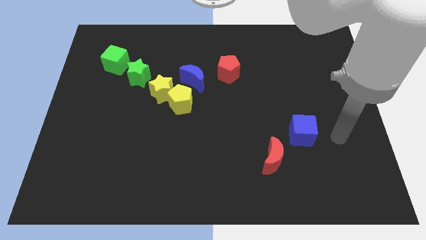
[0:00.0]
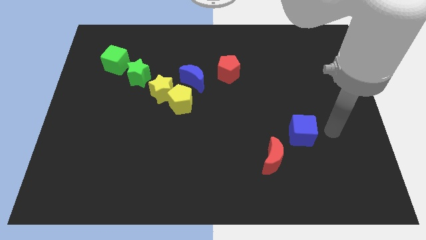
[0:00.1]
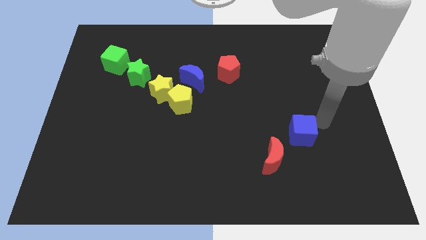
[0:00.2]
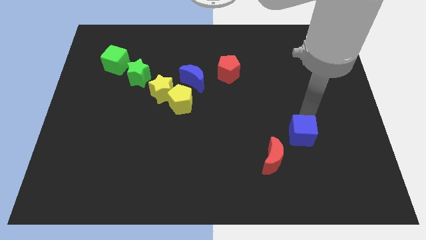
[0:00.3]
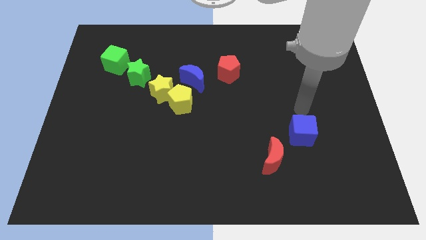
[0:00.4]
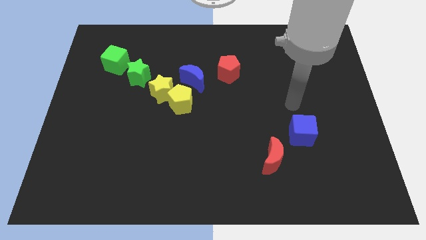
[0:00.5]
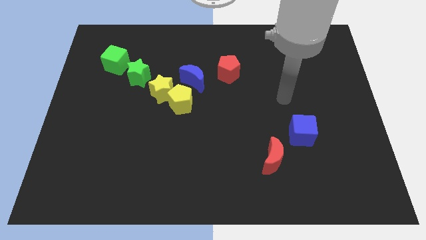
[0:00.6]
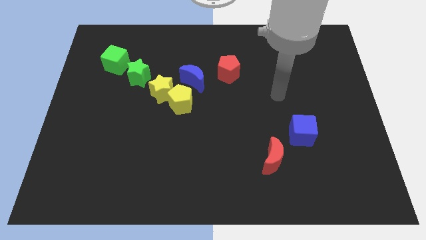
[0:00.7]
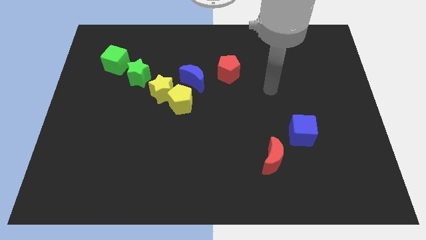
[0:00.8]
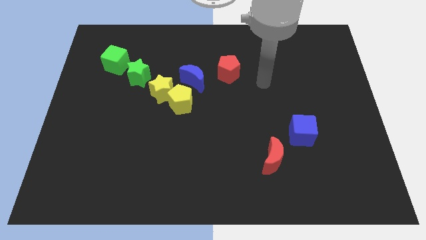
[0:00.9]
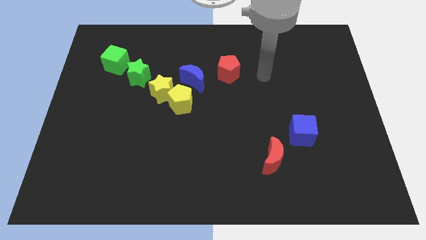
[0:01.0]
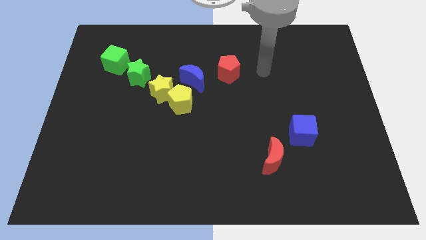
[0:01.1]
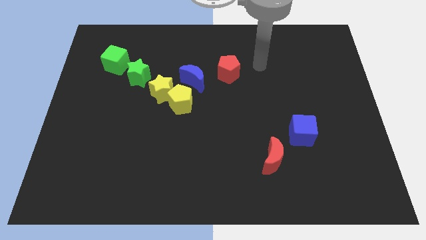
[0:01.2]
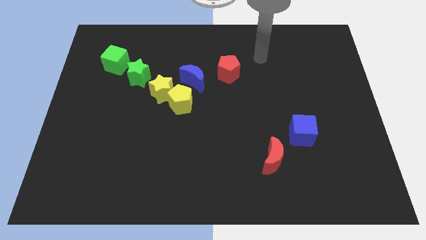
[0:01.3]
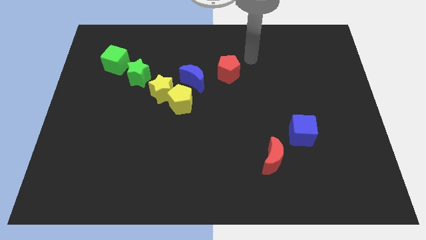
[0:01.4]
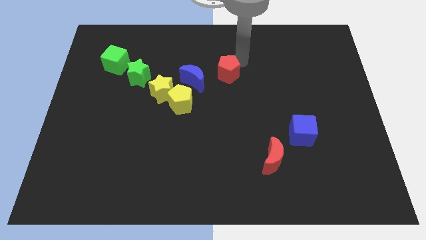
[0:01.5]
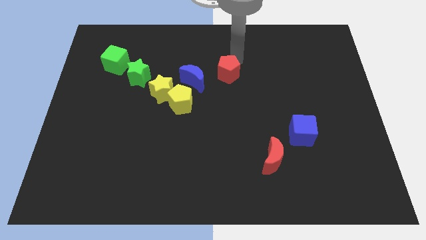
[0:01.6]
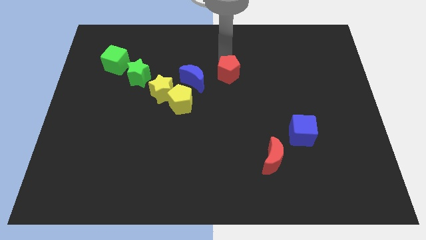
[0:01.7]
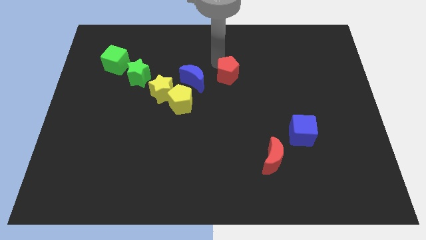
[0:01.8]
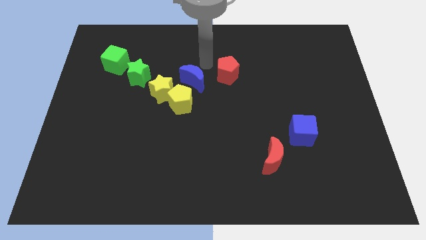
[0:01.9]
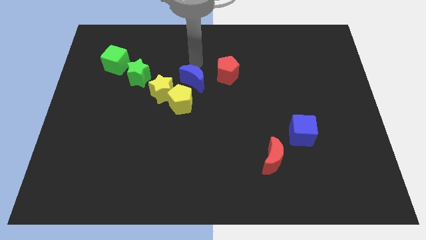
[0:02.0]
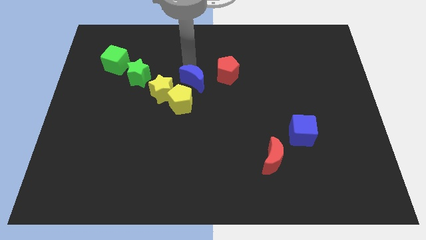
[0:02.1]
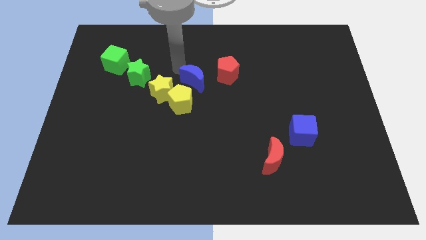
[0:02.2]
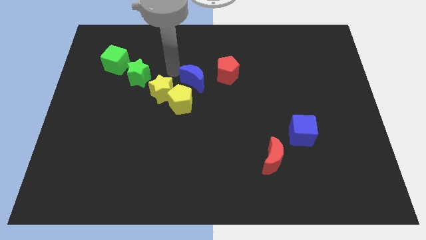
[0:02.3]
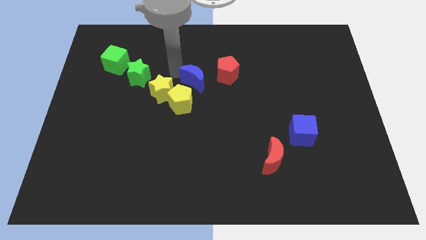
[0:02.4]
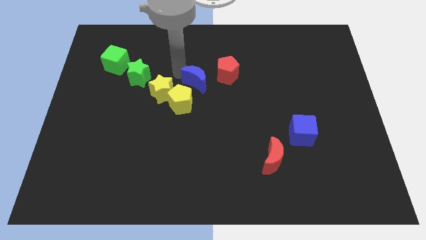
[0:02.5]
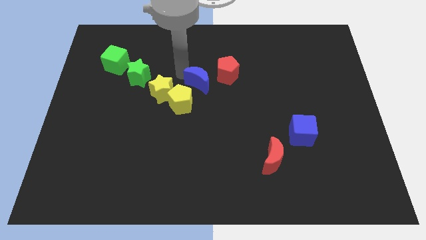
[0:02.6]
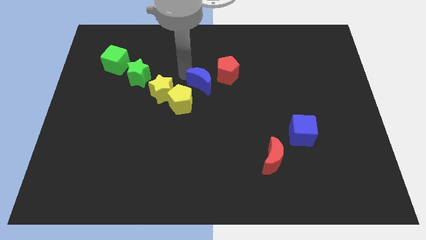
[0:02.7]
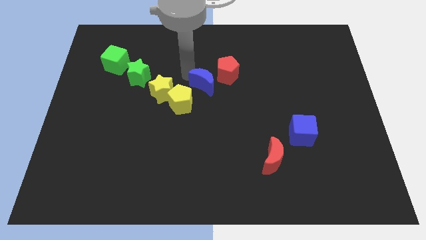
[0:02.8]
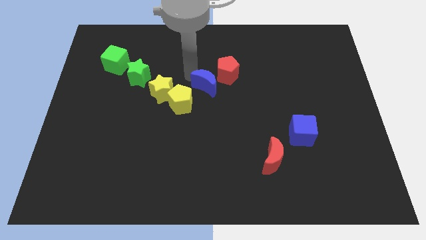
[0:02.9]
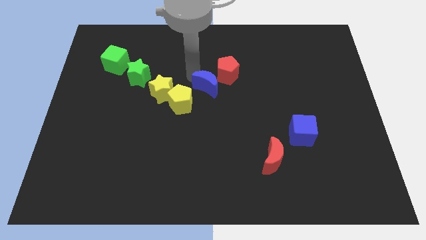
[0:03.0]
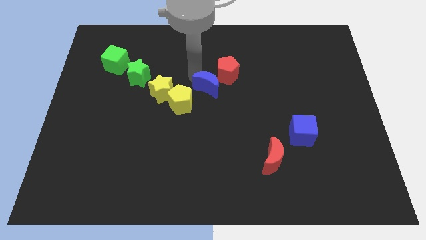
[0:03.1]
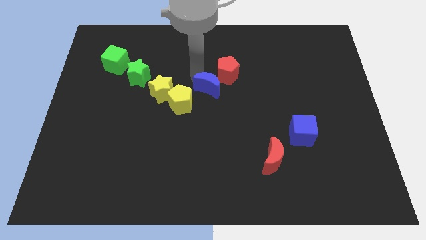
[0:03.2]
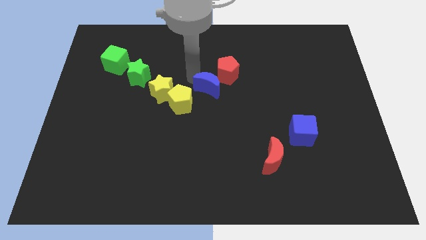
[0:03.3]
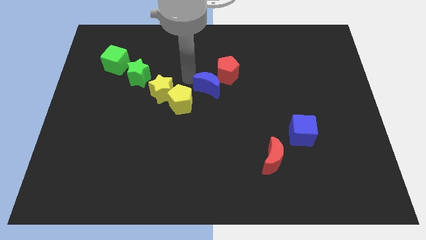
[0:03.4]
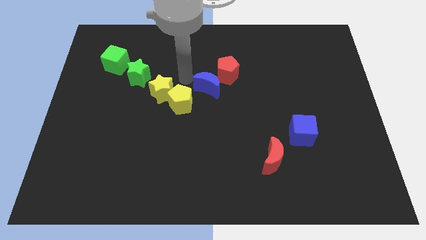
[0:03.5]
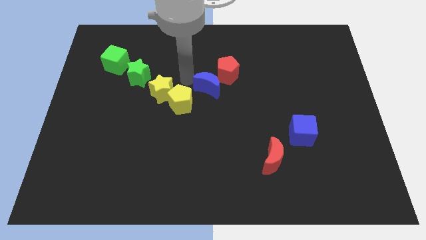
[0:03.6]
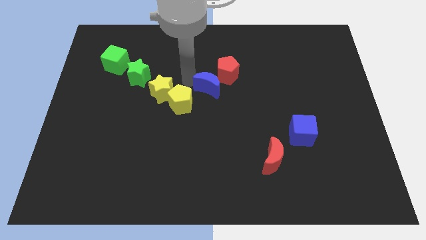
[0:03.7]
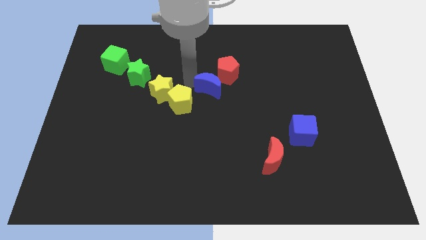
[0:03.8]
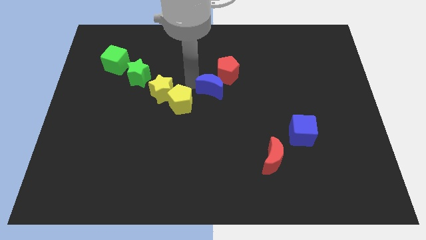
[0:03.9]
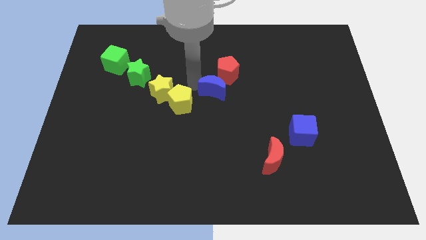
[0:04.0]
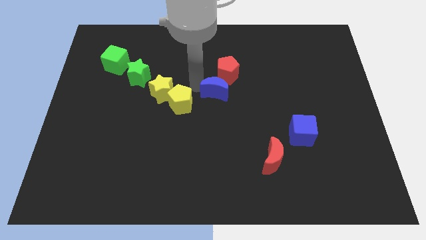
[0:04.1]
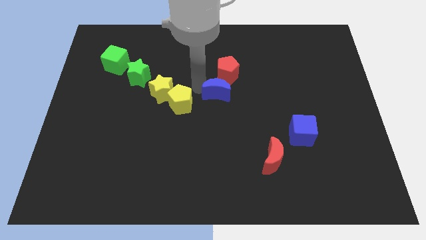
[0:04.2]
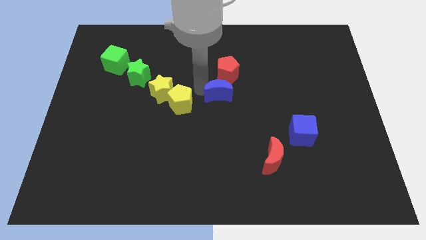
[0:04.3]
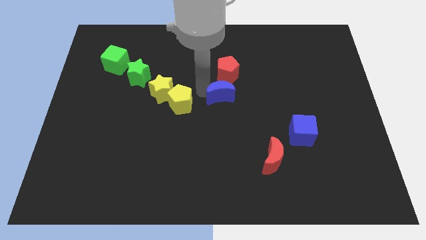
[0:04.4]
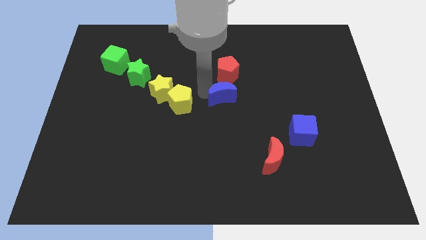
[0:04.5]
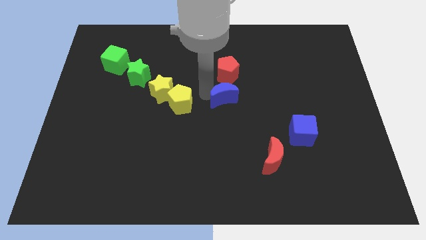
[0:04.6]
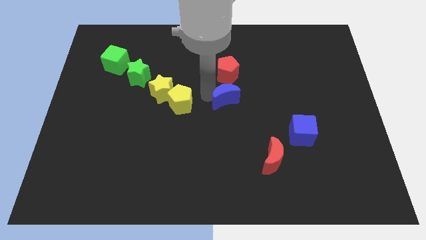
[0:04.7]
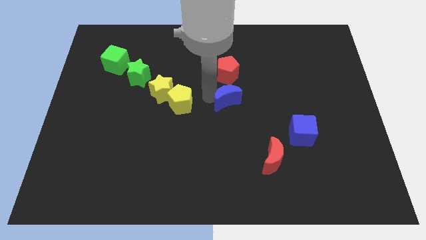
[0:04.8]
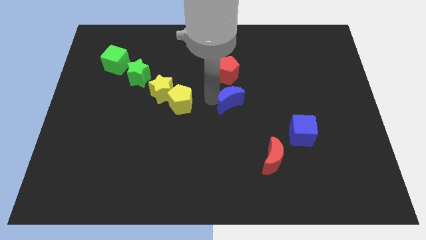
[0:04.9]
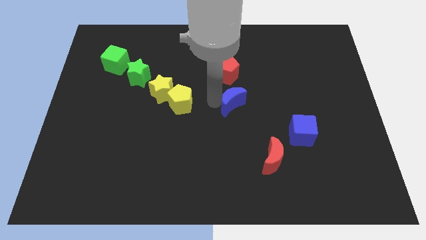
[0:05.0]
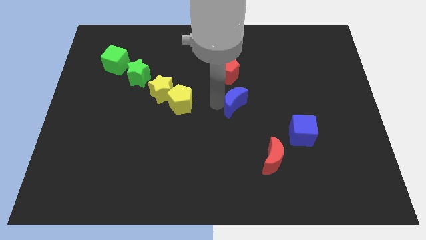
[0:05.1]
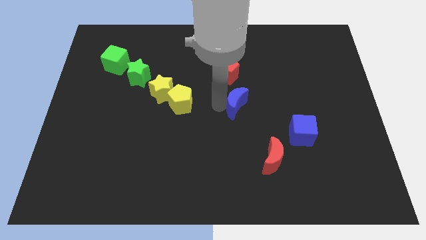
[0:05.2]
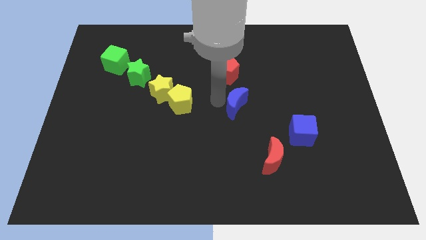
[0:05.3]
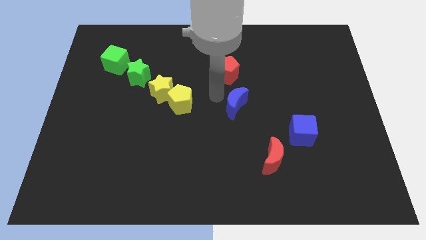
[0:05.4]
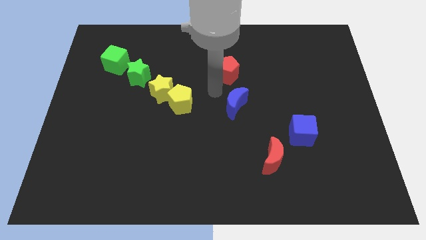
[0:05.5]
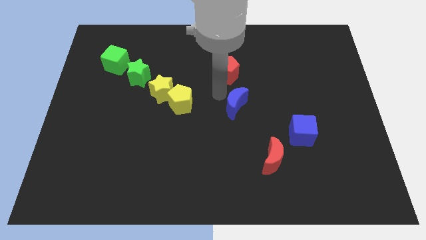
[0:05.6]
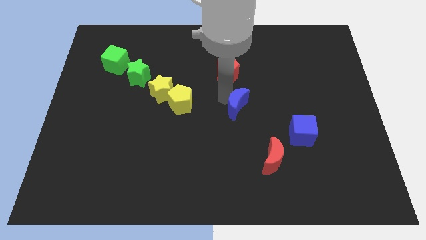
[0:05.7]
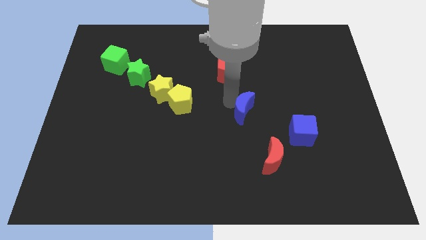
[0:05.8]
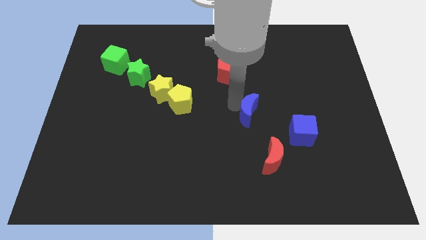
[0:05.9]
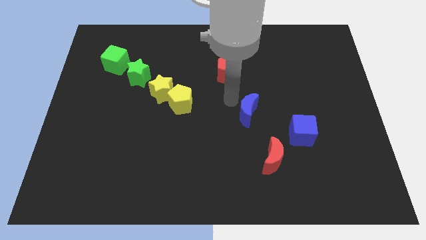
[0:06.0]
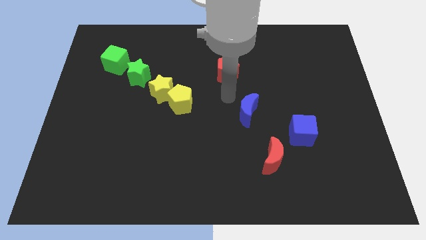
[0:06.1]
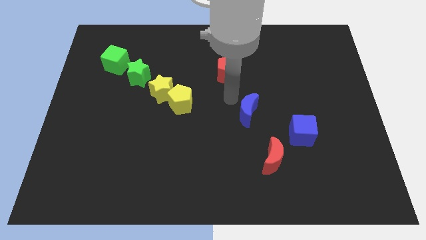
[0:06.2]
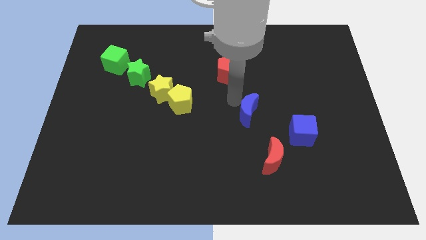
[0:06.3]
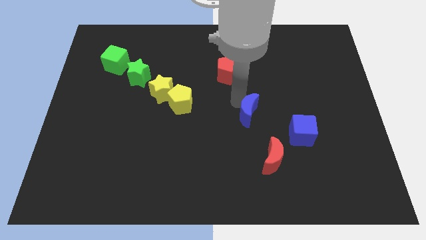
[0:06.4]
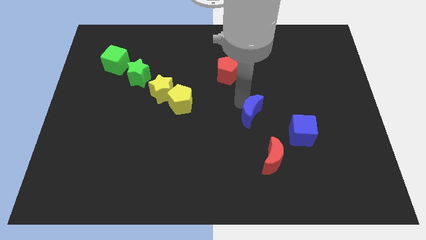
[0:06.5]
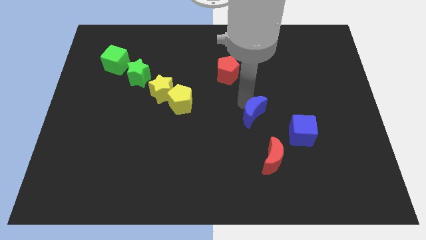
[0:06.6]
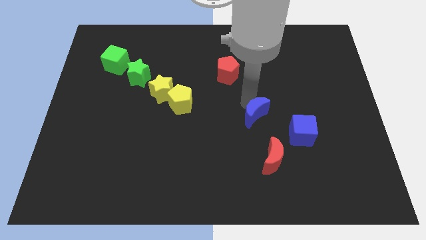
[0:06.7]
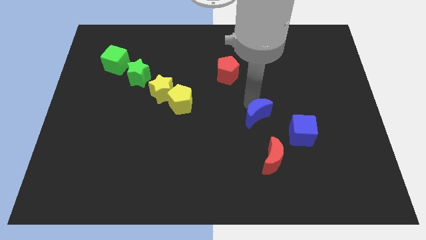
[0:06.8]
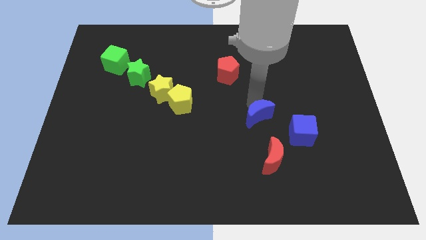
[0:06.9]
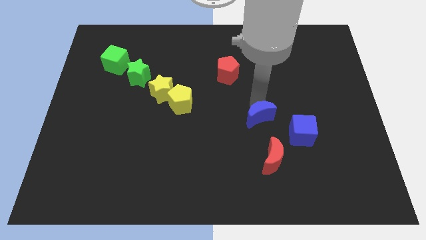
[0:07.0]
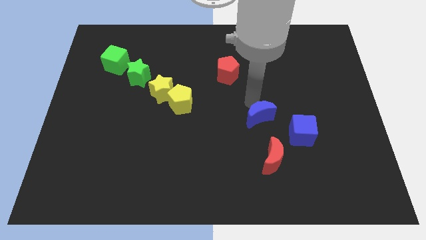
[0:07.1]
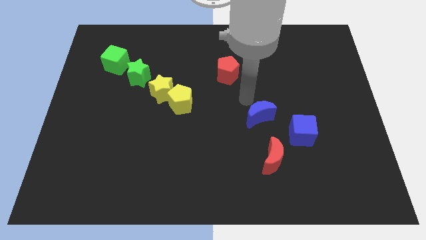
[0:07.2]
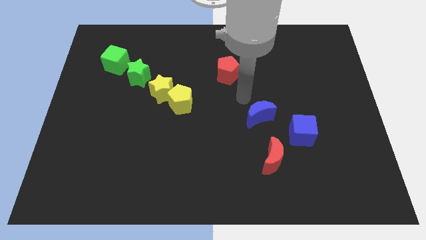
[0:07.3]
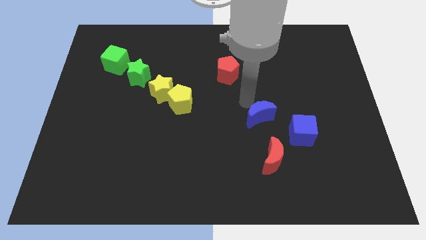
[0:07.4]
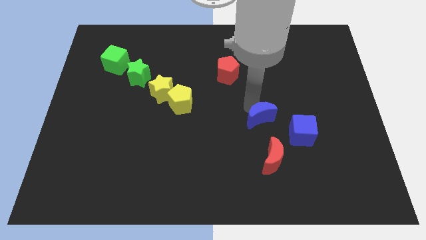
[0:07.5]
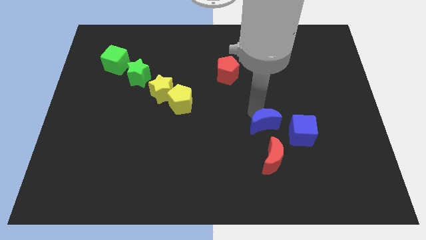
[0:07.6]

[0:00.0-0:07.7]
slide the blue moon diagonally downwards and right

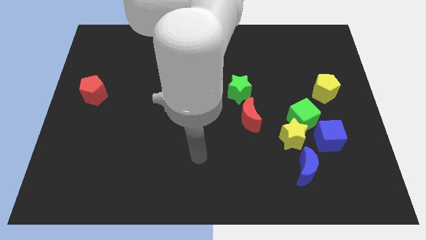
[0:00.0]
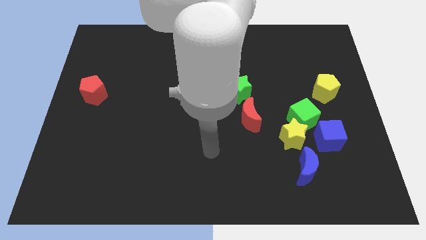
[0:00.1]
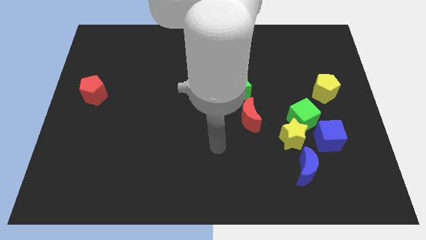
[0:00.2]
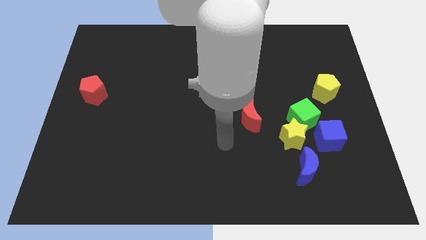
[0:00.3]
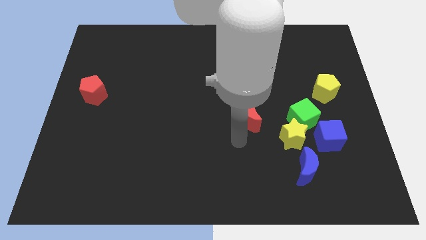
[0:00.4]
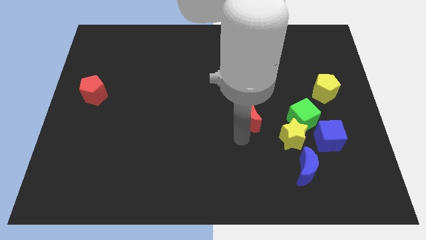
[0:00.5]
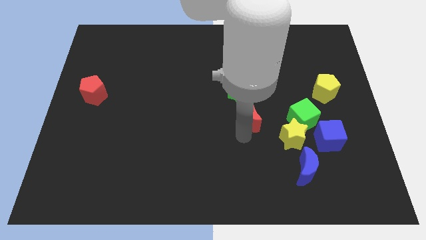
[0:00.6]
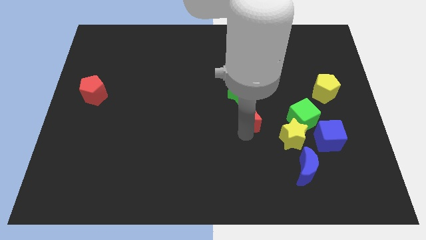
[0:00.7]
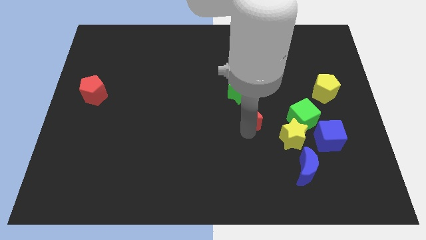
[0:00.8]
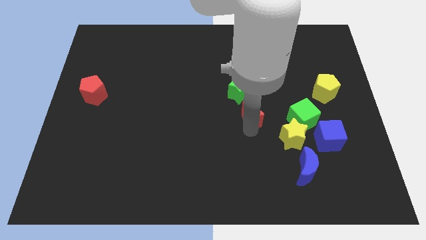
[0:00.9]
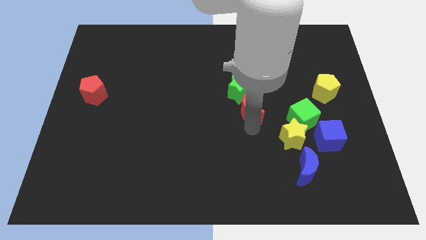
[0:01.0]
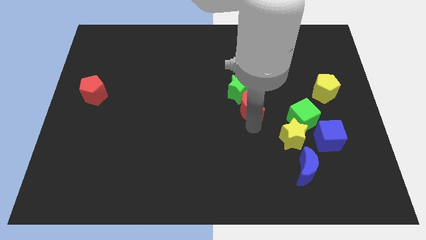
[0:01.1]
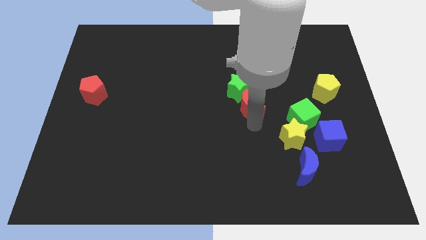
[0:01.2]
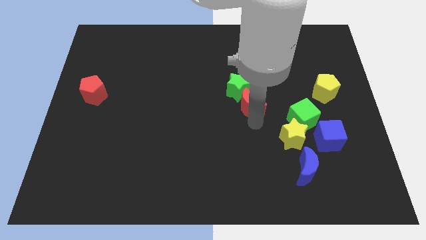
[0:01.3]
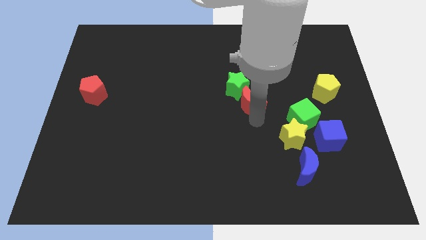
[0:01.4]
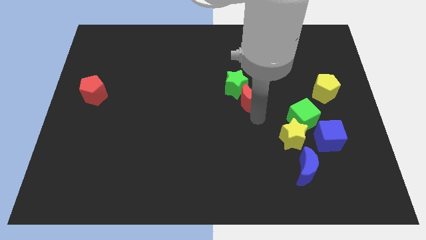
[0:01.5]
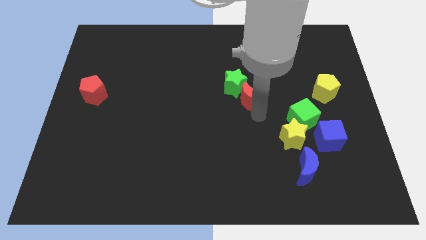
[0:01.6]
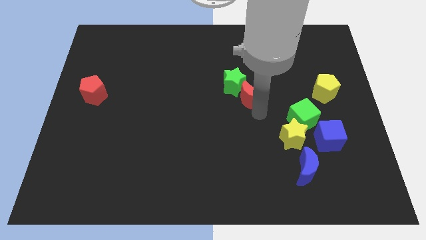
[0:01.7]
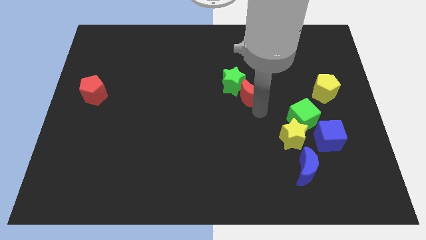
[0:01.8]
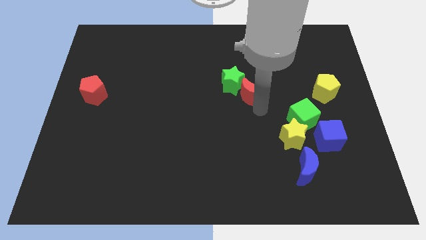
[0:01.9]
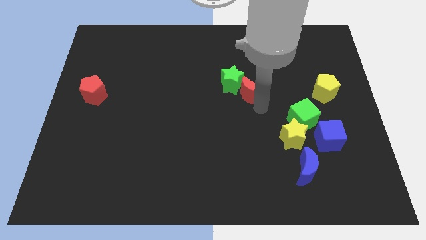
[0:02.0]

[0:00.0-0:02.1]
slightly slide the red moon upwards
